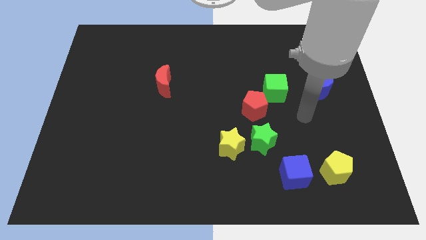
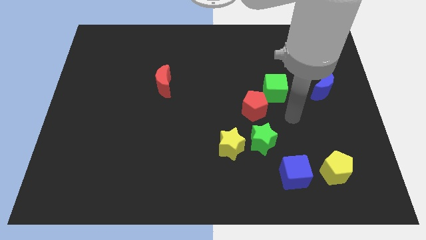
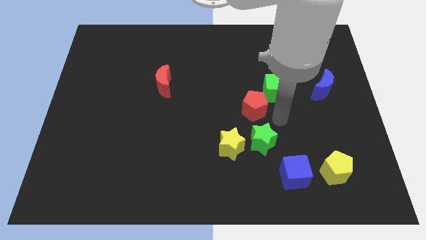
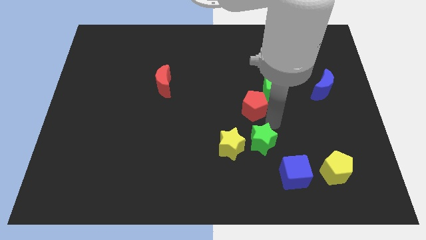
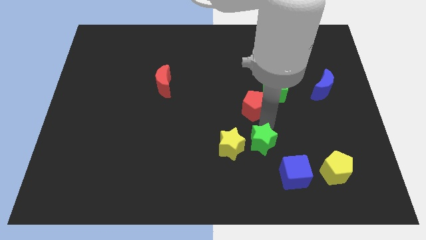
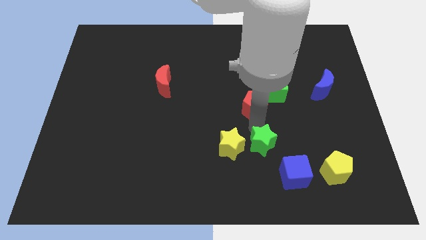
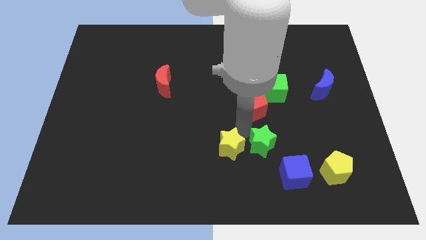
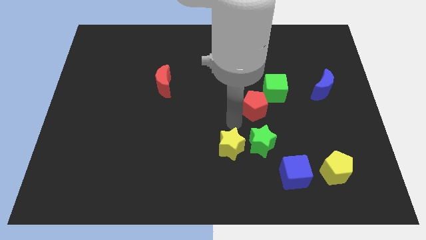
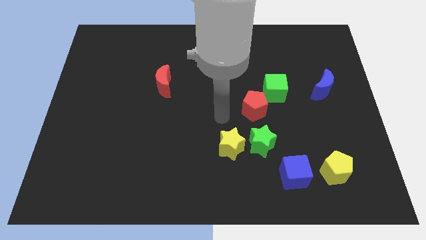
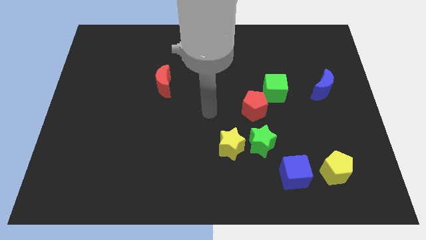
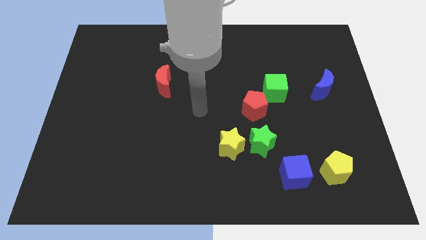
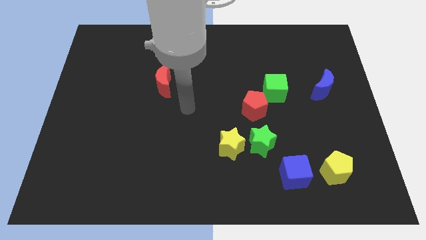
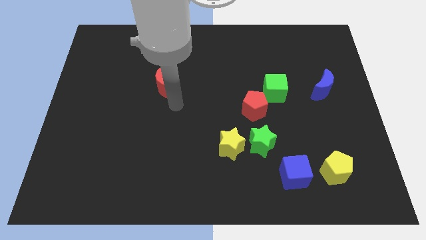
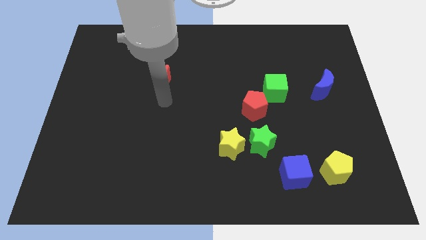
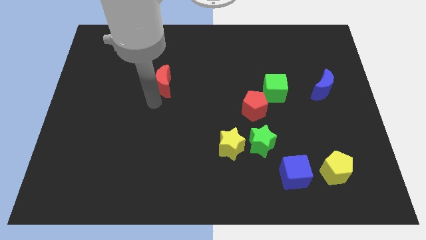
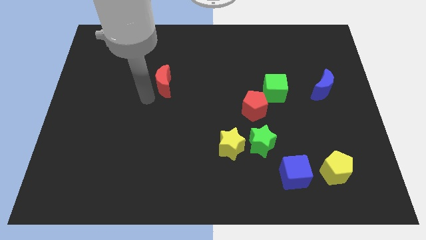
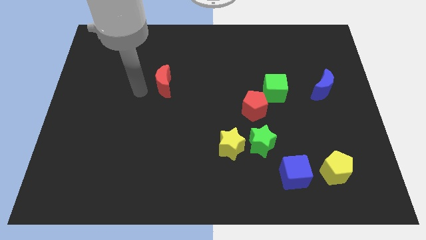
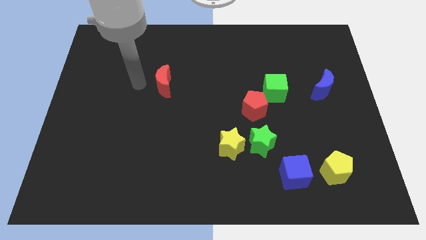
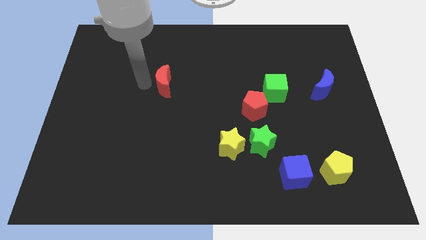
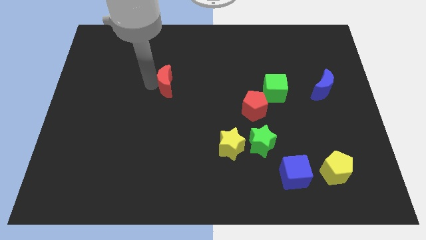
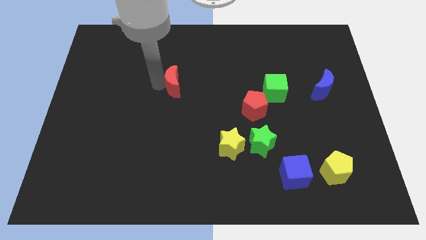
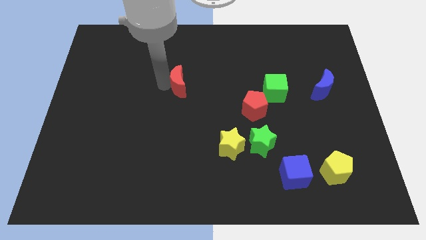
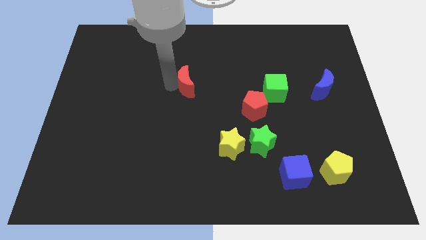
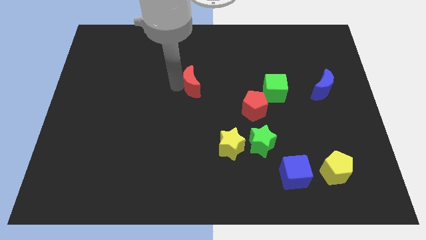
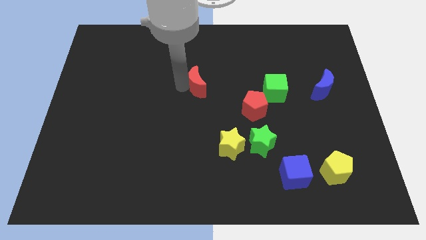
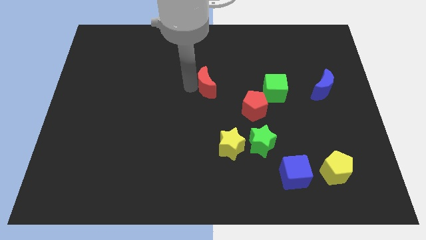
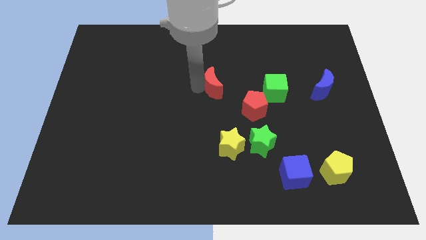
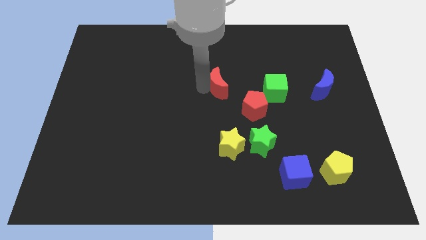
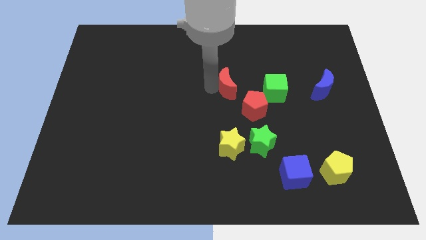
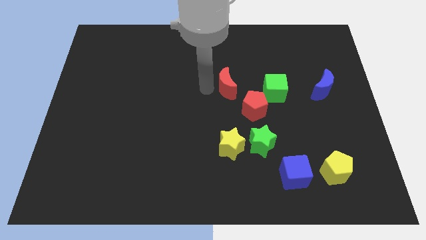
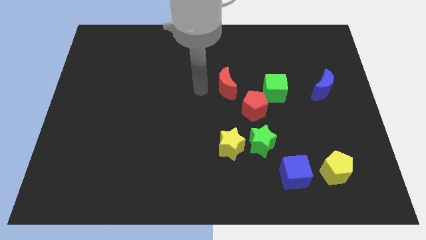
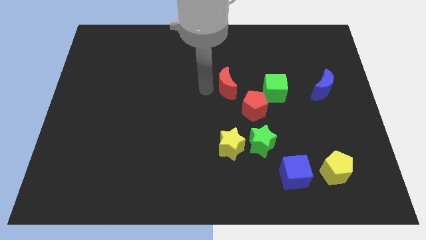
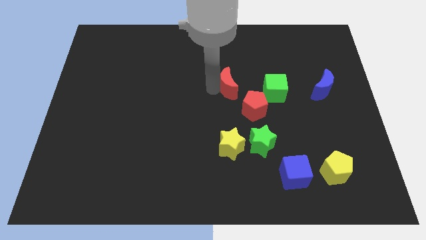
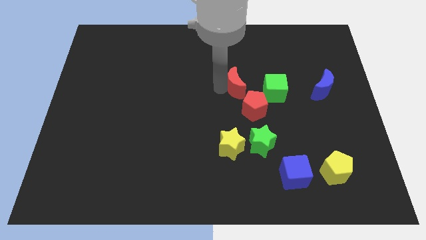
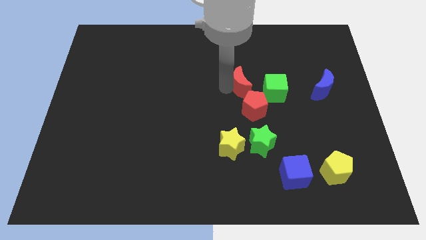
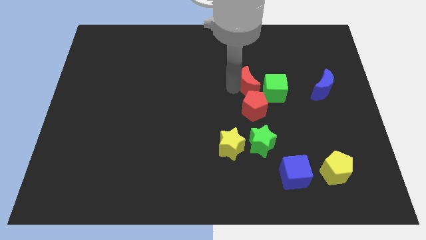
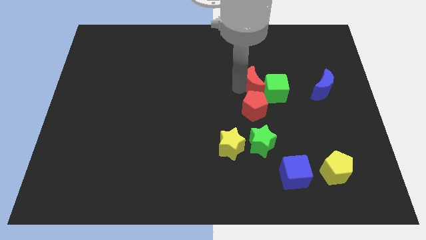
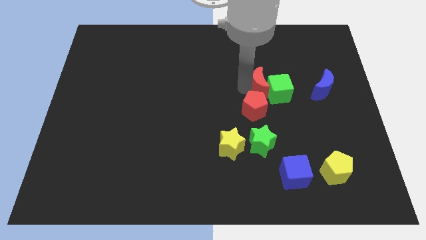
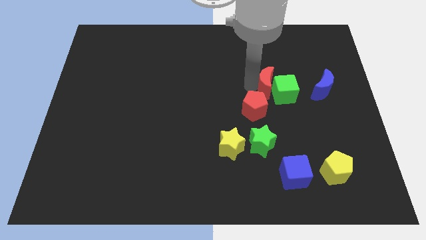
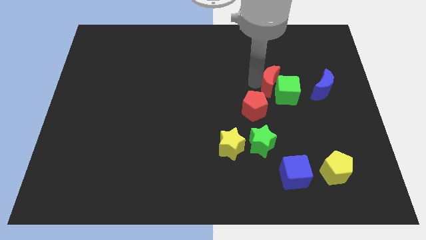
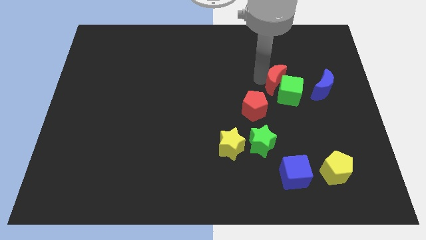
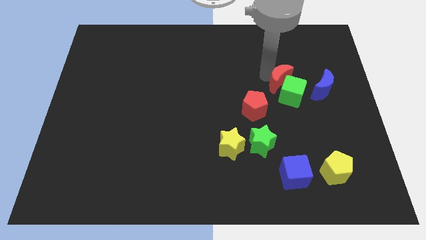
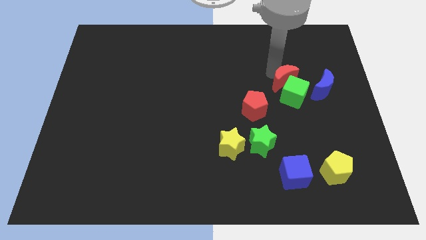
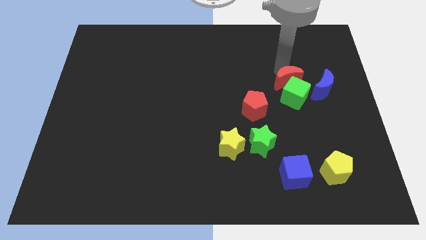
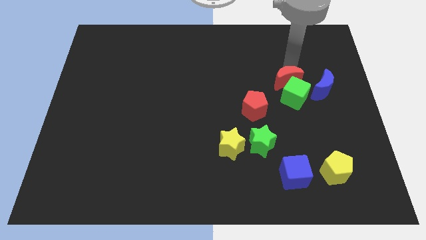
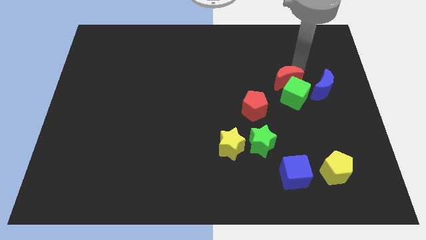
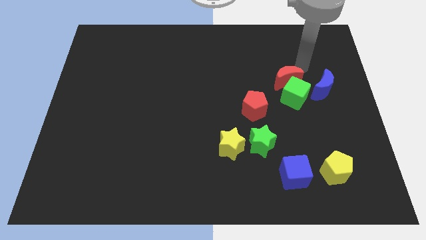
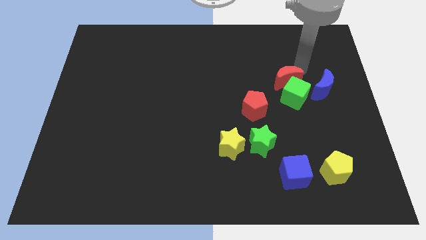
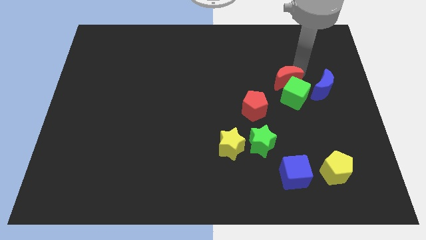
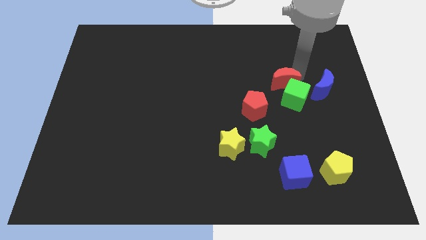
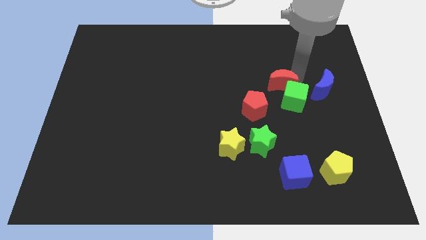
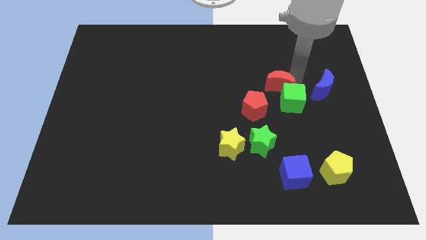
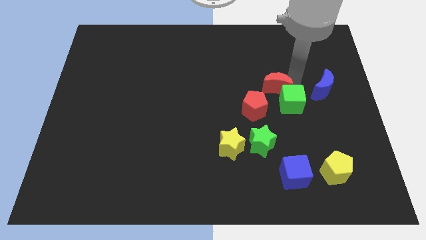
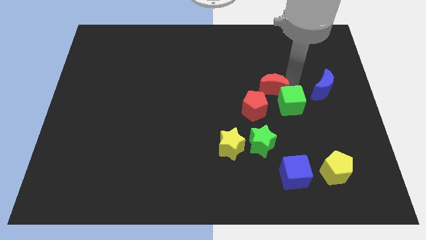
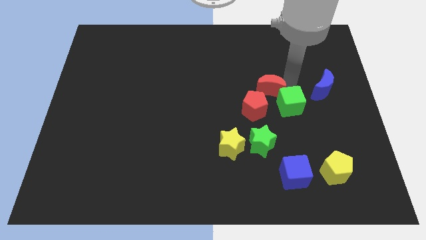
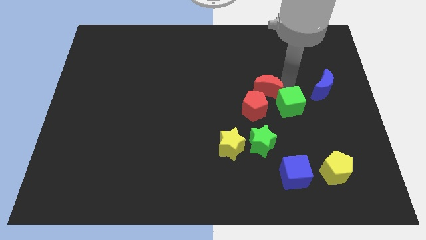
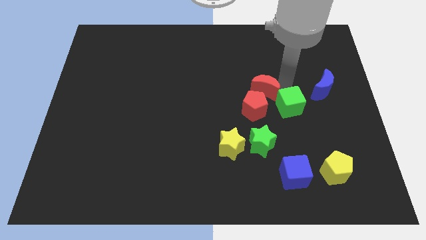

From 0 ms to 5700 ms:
push the red moon to the top of the green star
